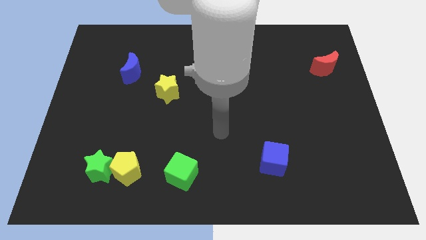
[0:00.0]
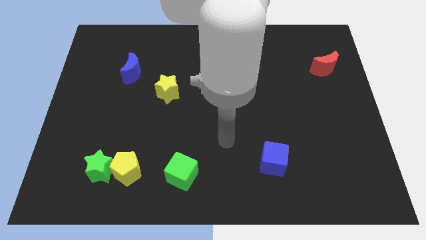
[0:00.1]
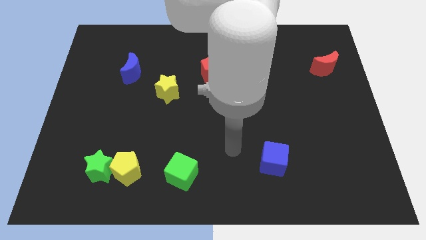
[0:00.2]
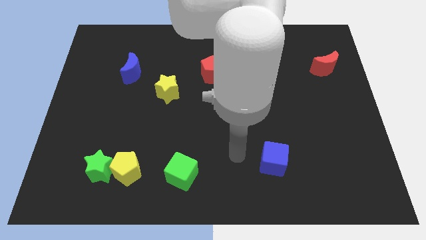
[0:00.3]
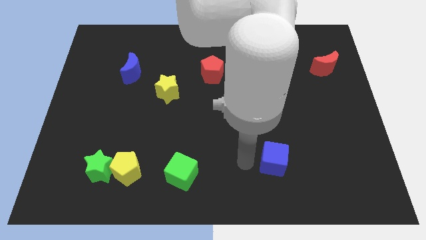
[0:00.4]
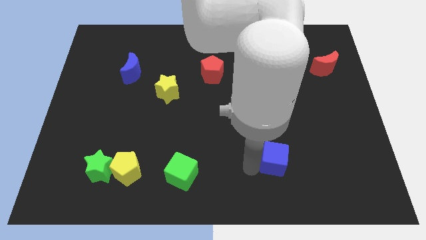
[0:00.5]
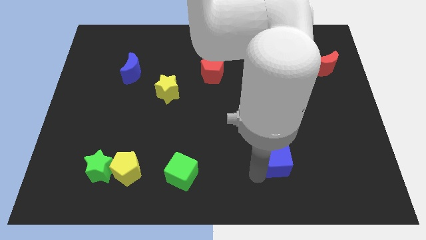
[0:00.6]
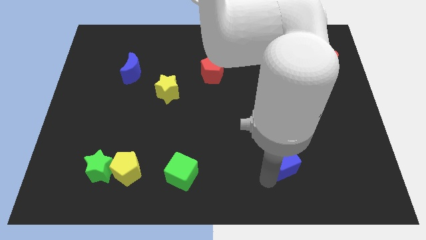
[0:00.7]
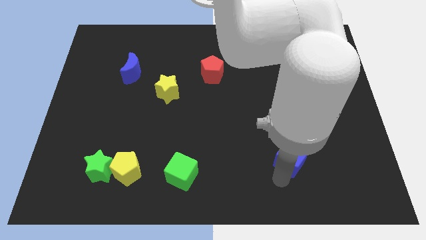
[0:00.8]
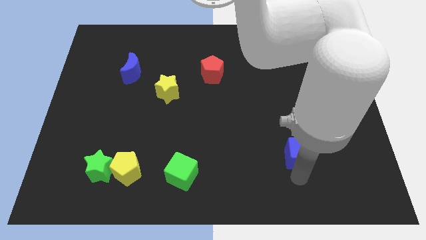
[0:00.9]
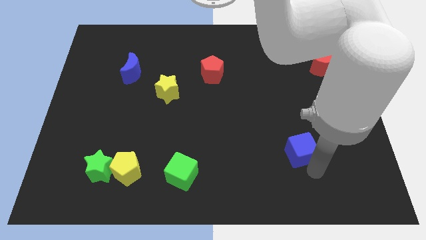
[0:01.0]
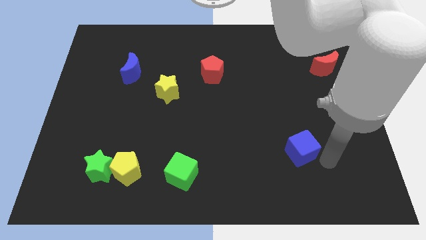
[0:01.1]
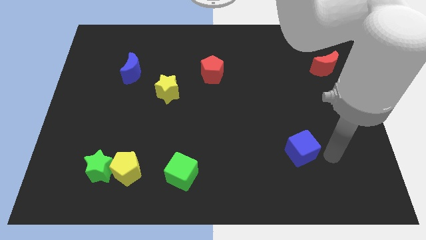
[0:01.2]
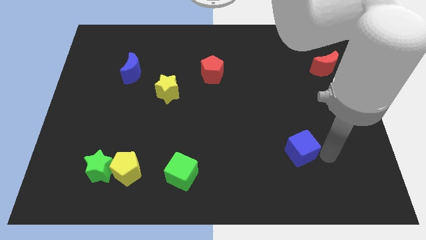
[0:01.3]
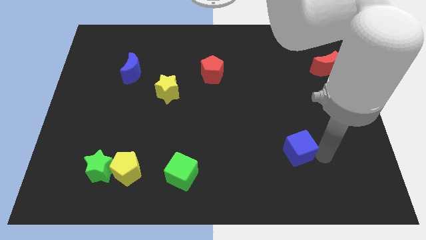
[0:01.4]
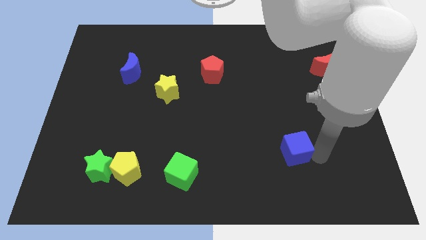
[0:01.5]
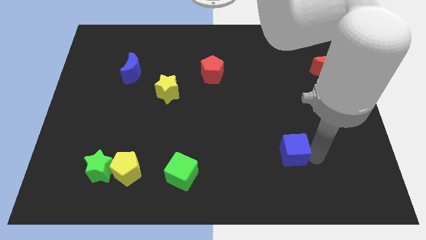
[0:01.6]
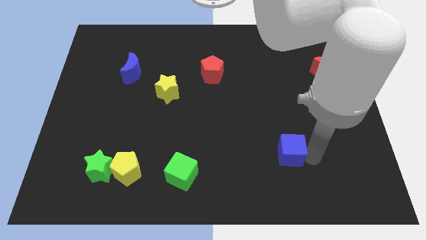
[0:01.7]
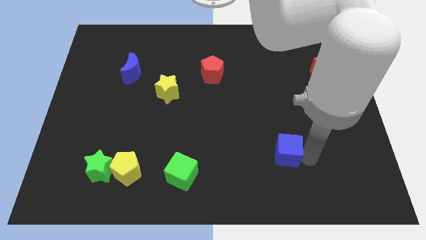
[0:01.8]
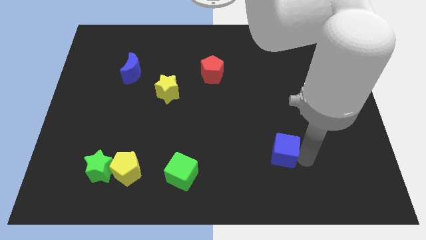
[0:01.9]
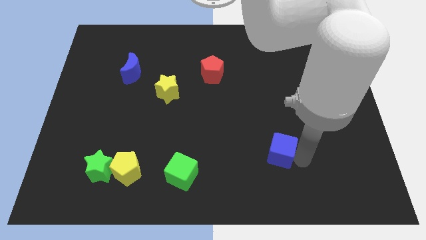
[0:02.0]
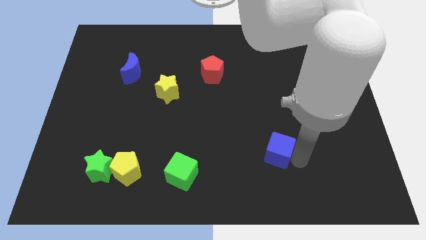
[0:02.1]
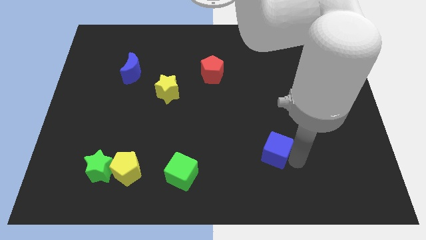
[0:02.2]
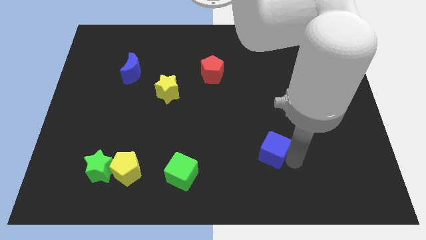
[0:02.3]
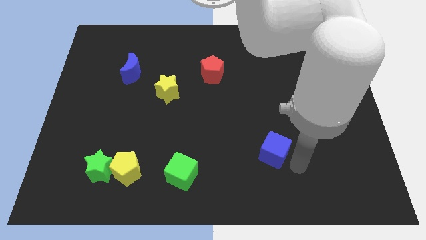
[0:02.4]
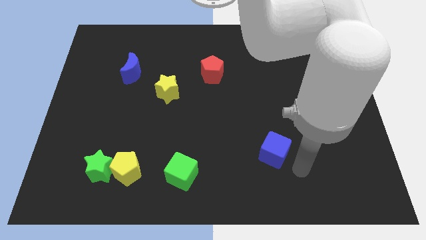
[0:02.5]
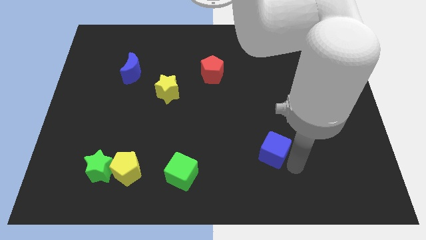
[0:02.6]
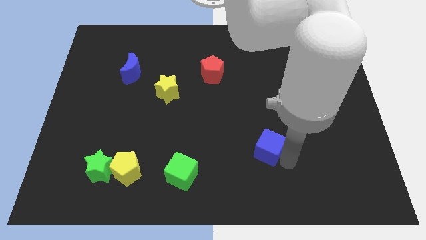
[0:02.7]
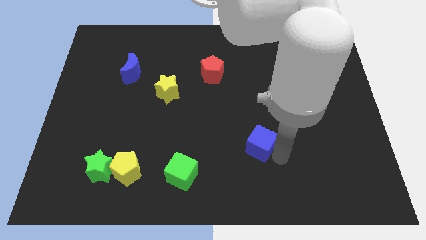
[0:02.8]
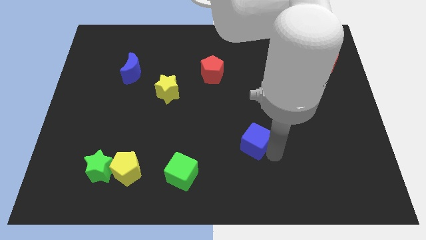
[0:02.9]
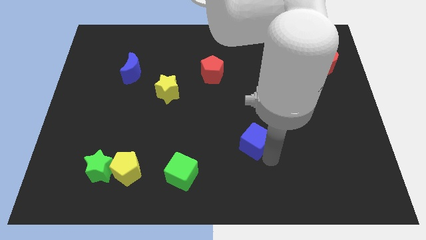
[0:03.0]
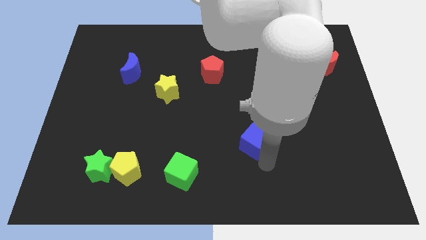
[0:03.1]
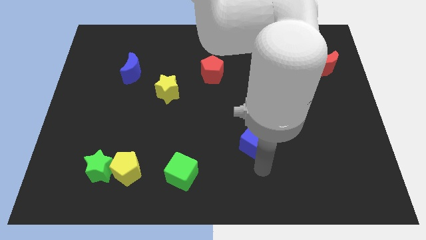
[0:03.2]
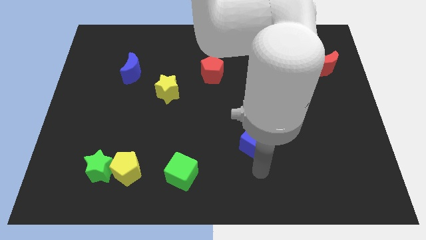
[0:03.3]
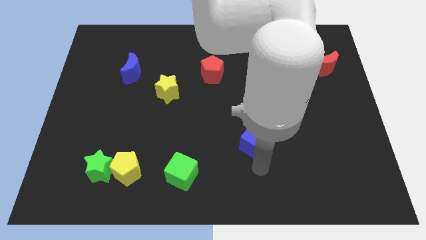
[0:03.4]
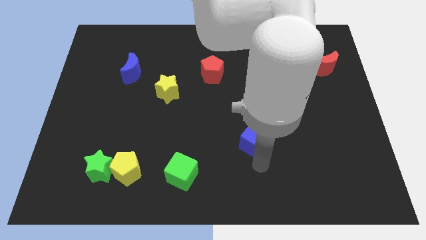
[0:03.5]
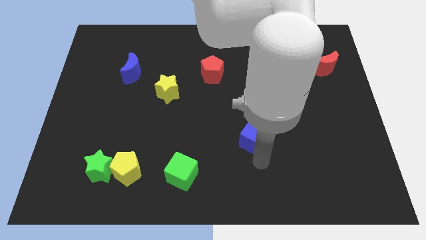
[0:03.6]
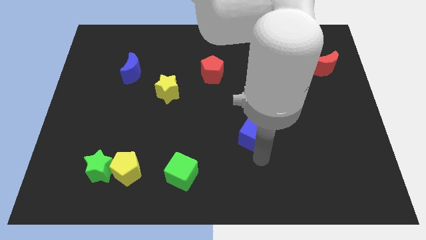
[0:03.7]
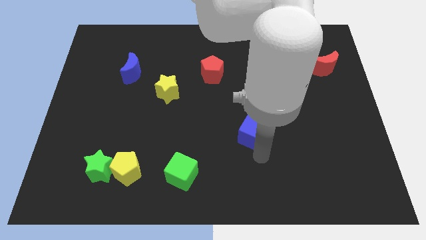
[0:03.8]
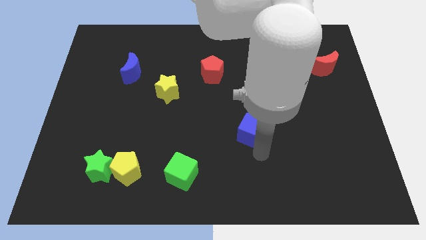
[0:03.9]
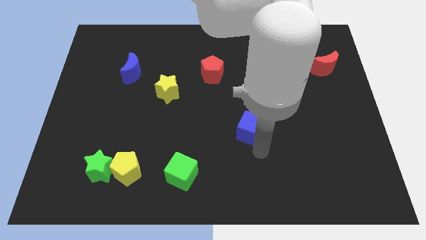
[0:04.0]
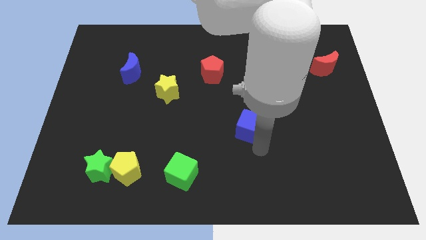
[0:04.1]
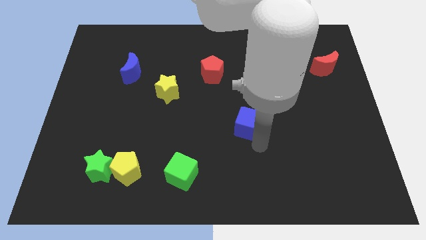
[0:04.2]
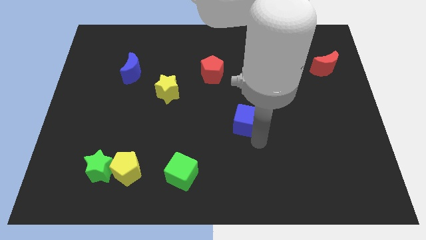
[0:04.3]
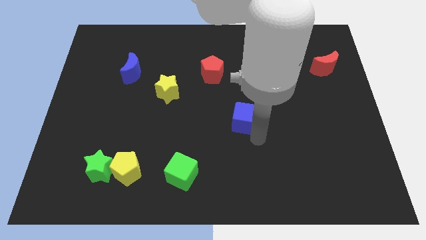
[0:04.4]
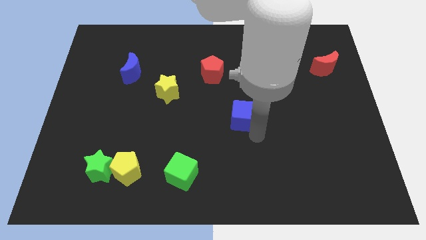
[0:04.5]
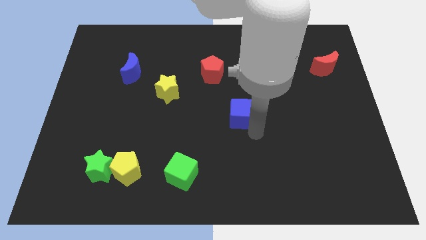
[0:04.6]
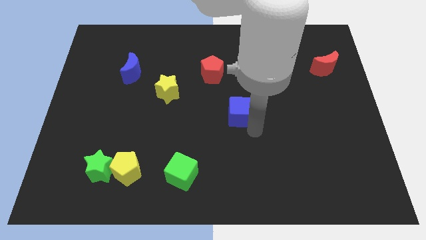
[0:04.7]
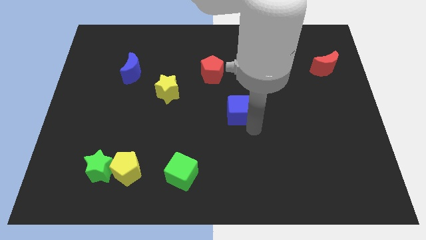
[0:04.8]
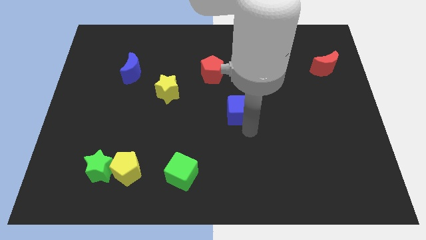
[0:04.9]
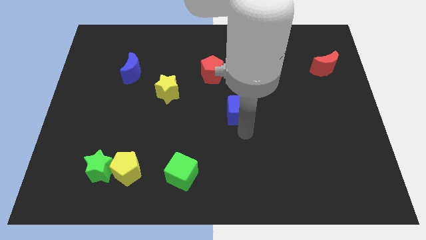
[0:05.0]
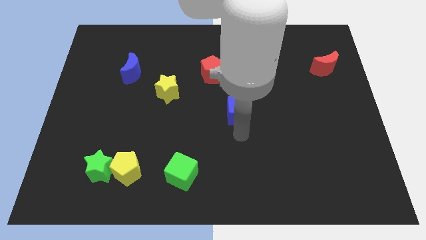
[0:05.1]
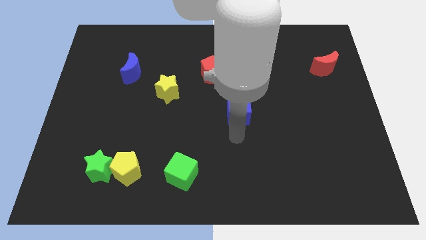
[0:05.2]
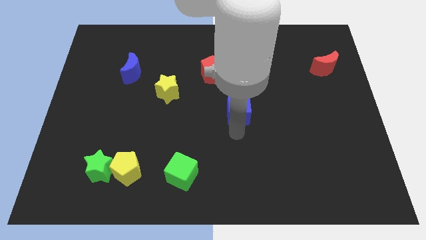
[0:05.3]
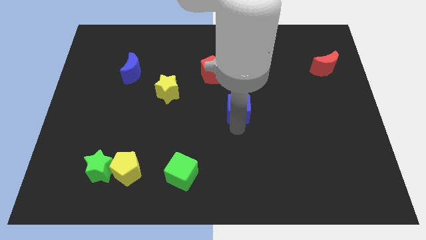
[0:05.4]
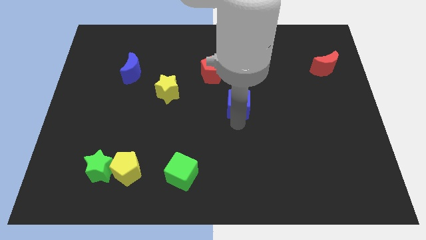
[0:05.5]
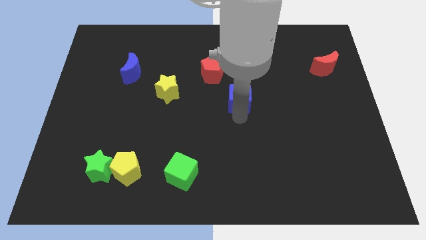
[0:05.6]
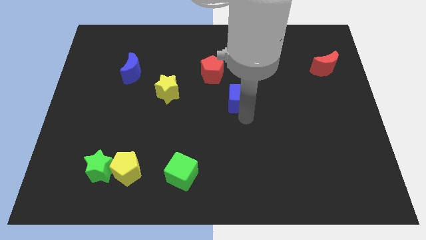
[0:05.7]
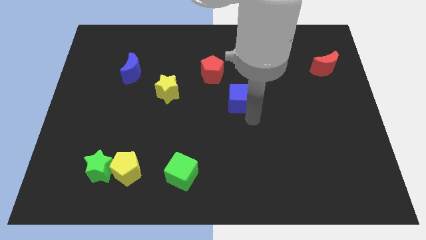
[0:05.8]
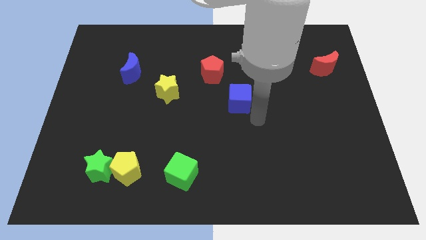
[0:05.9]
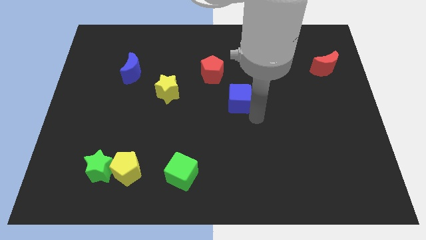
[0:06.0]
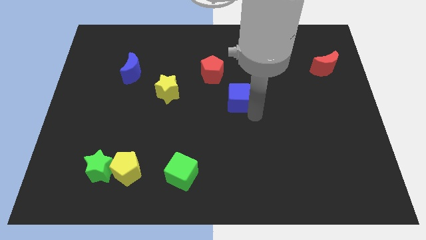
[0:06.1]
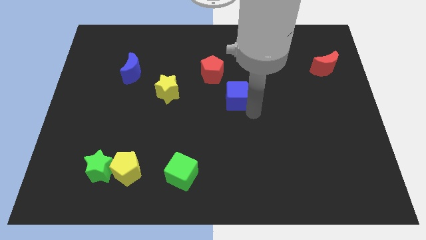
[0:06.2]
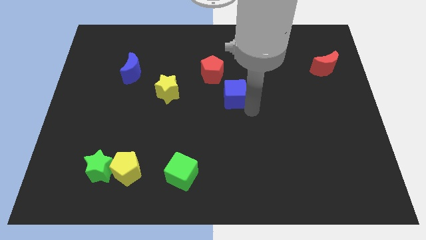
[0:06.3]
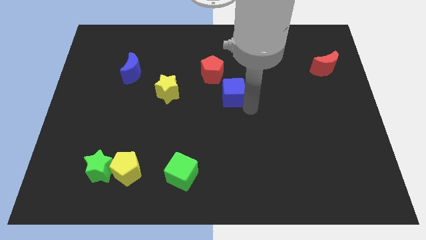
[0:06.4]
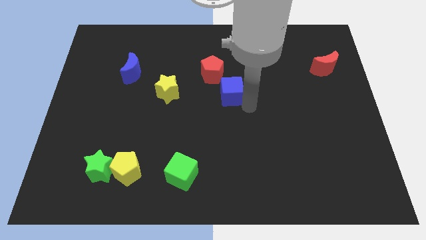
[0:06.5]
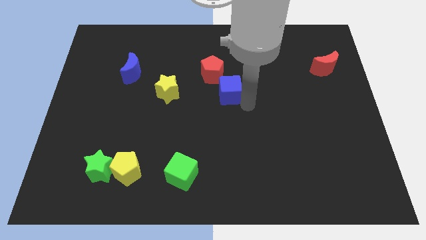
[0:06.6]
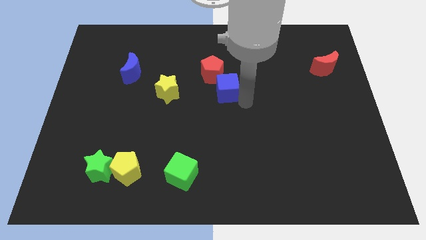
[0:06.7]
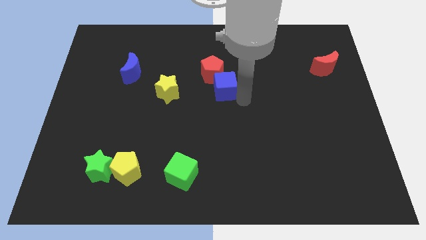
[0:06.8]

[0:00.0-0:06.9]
slide the blue cube close to the red pentagon
